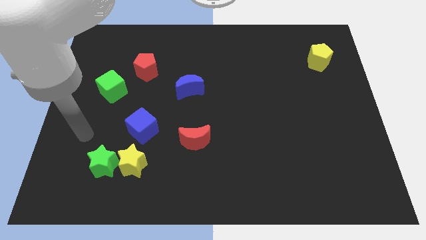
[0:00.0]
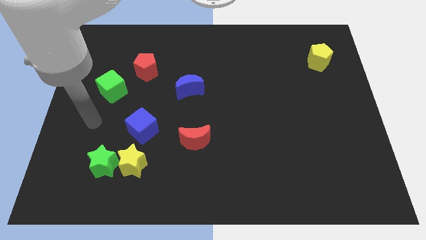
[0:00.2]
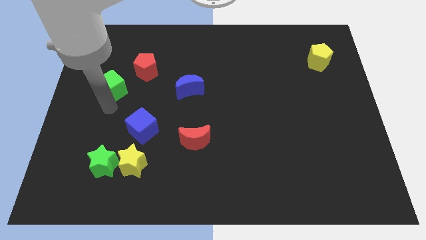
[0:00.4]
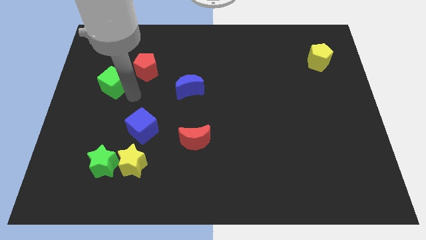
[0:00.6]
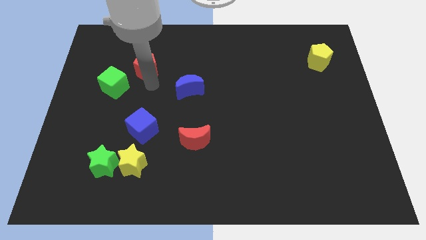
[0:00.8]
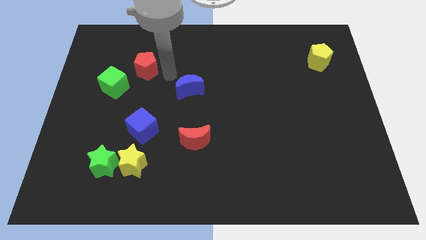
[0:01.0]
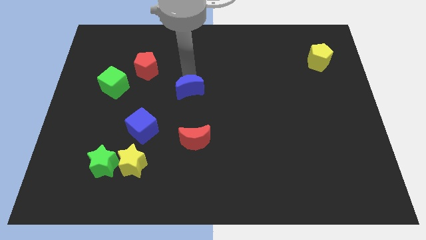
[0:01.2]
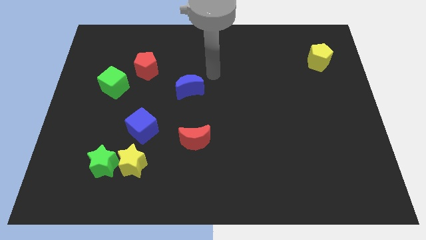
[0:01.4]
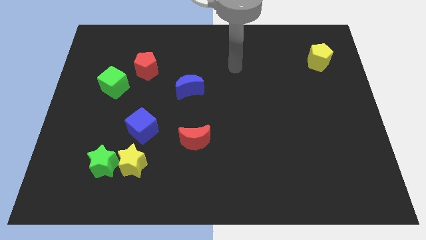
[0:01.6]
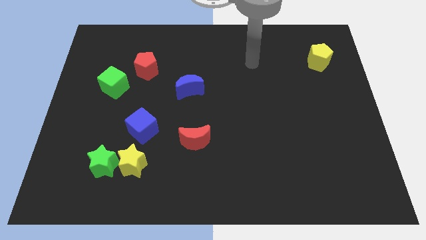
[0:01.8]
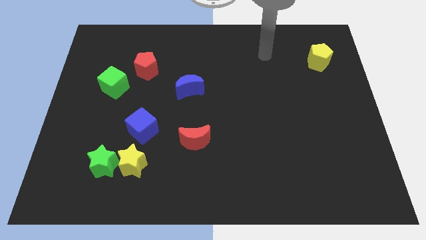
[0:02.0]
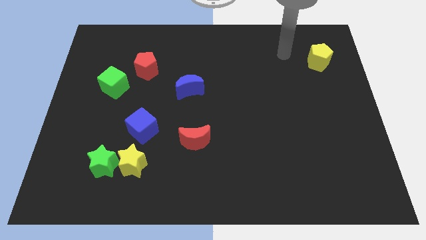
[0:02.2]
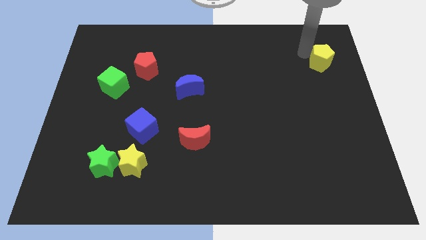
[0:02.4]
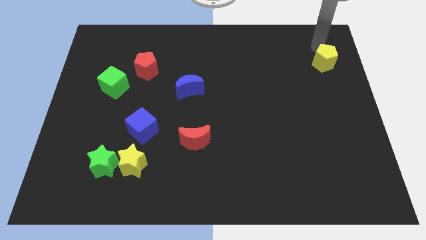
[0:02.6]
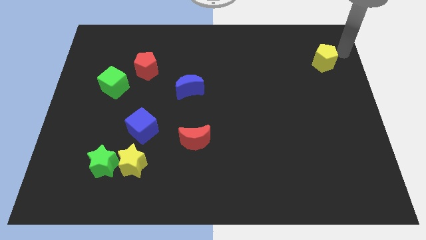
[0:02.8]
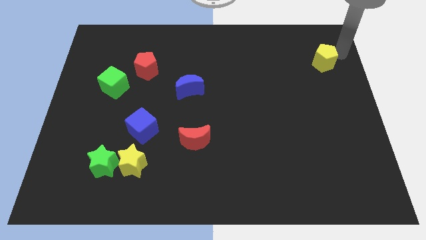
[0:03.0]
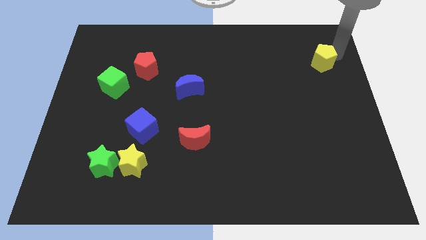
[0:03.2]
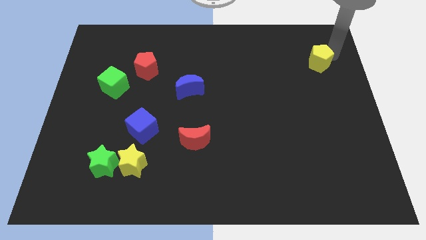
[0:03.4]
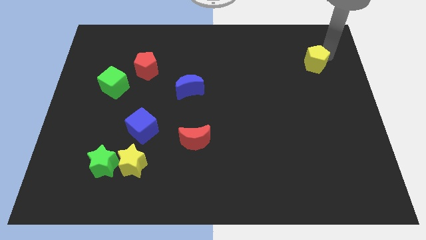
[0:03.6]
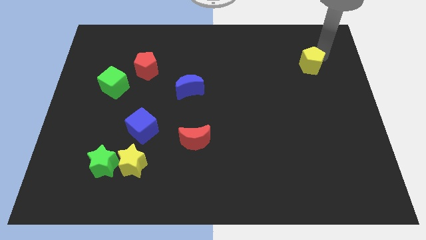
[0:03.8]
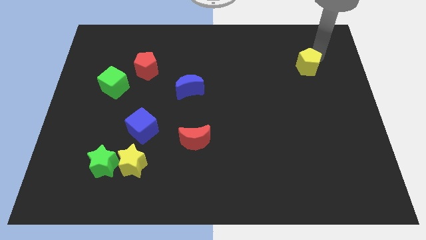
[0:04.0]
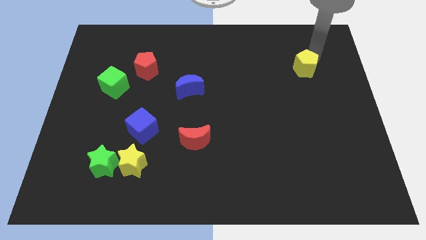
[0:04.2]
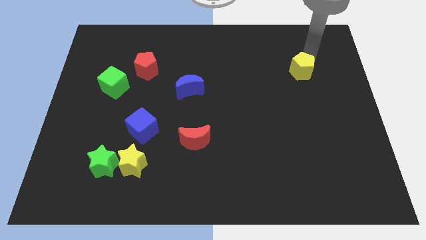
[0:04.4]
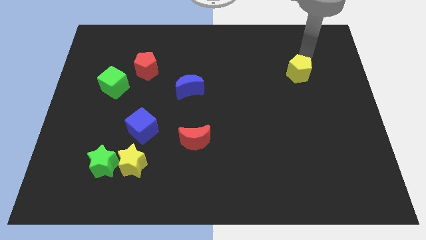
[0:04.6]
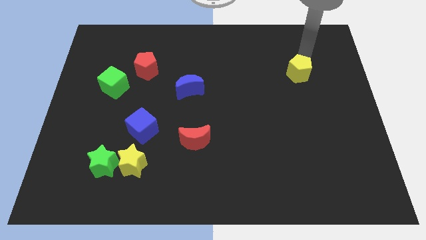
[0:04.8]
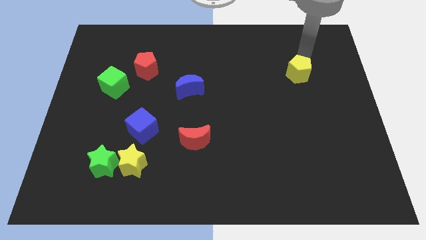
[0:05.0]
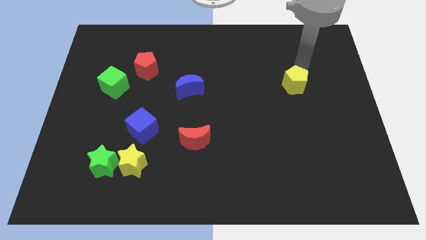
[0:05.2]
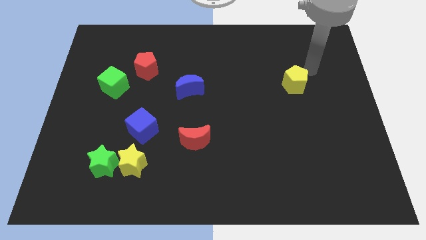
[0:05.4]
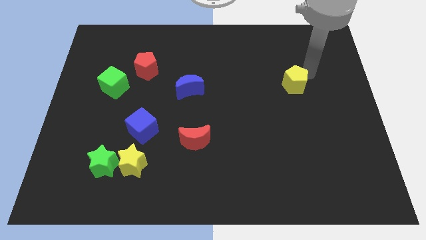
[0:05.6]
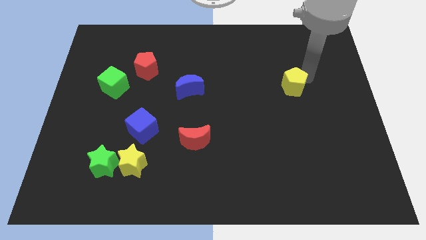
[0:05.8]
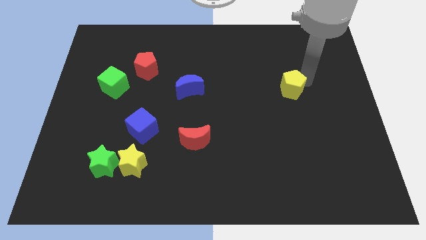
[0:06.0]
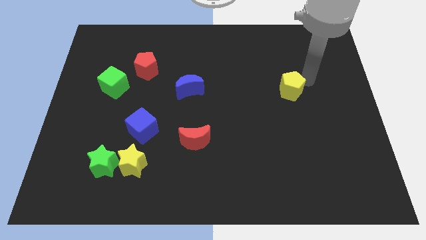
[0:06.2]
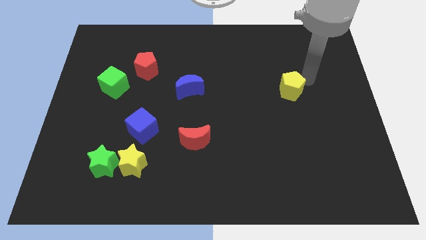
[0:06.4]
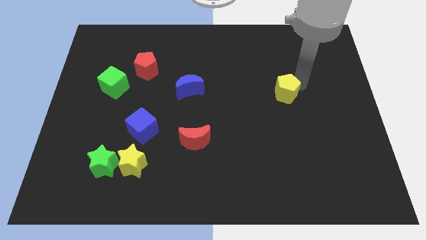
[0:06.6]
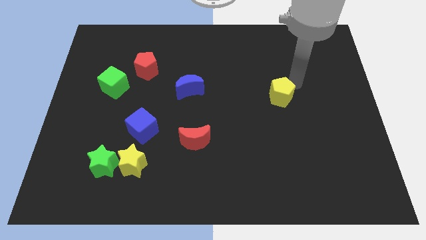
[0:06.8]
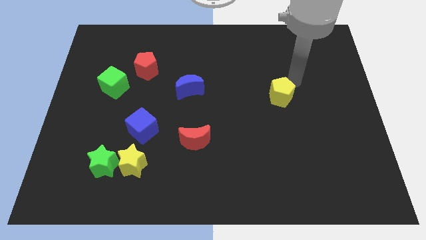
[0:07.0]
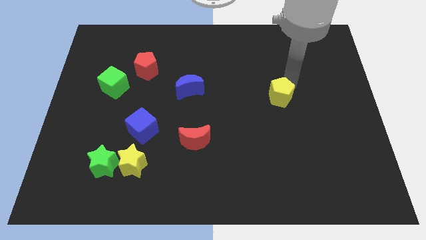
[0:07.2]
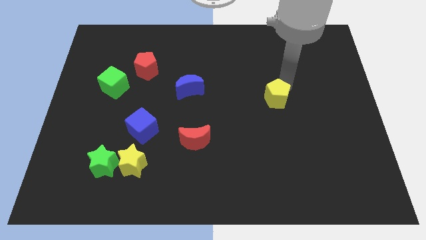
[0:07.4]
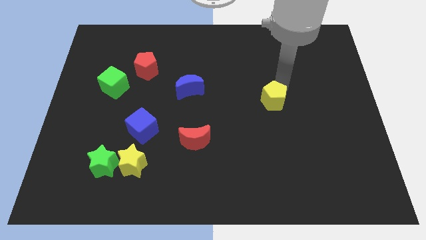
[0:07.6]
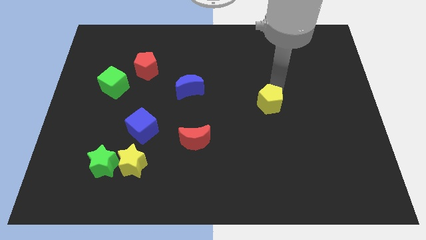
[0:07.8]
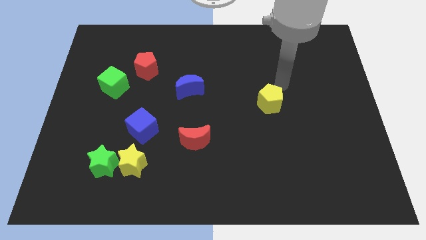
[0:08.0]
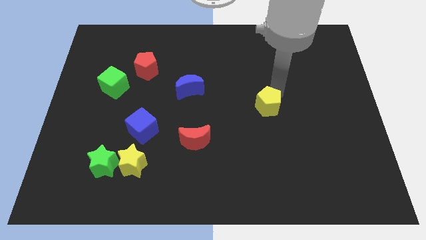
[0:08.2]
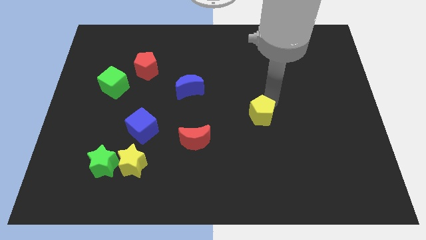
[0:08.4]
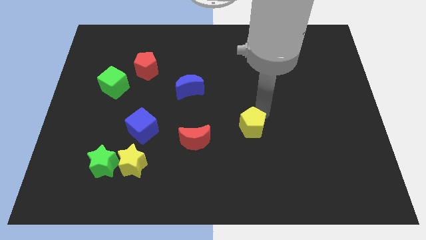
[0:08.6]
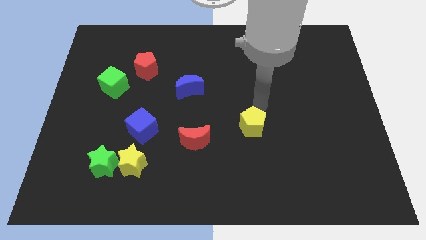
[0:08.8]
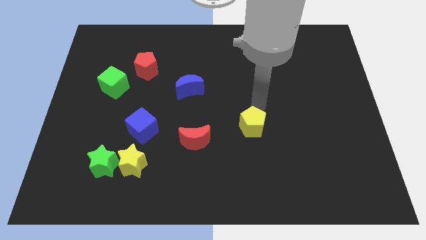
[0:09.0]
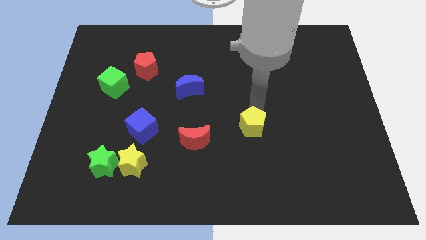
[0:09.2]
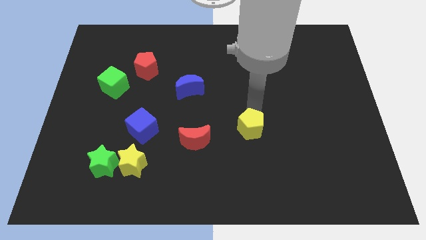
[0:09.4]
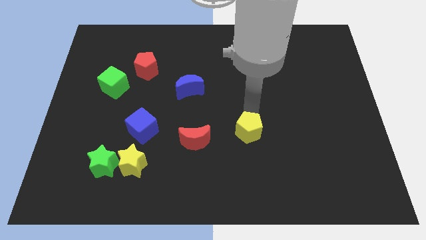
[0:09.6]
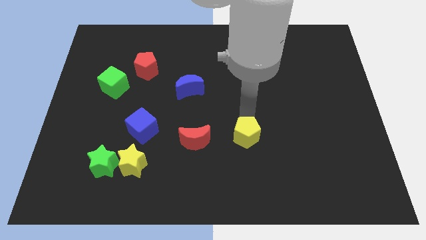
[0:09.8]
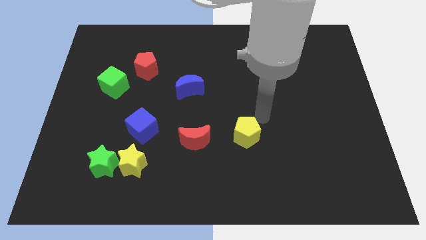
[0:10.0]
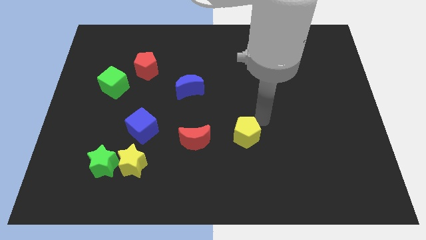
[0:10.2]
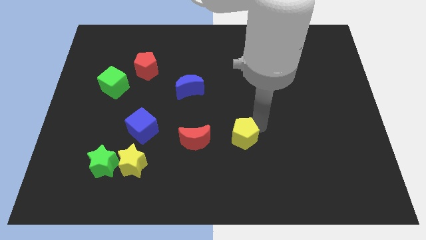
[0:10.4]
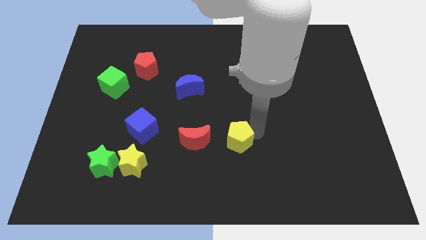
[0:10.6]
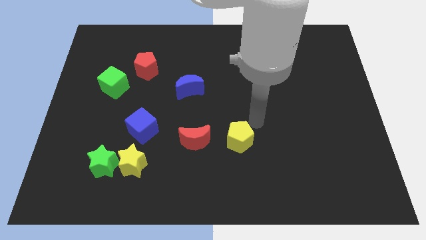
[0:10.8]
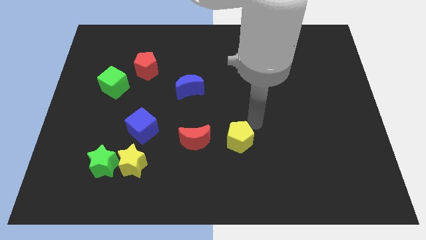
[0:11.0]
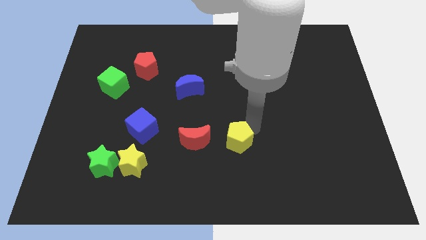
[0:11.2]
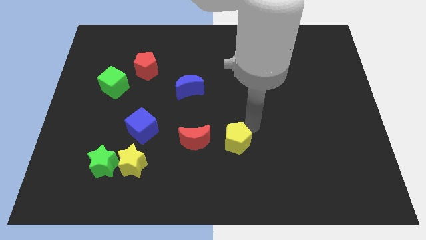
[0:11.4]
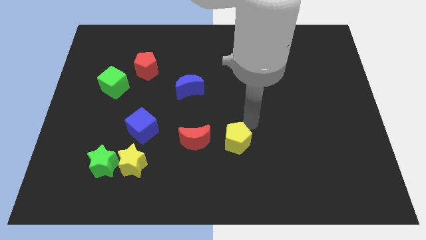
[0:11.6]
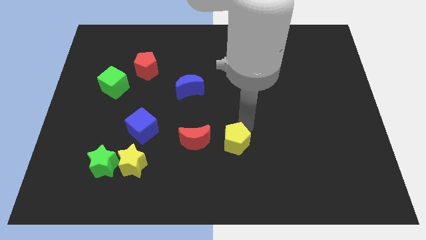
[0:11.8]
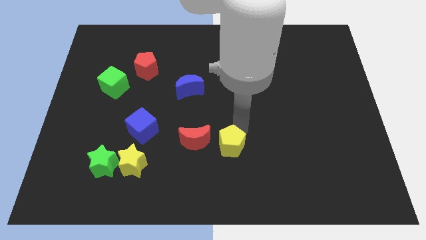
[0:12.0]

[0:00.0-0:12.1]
push the yellow pentagon diagonally down and to the right of the red moon

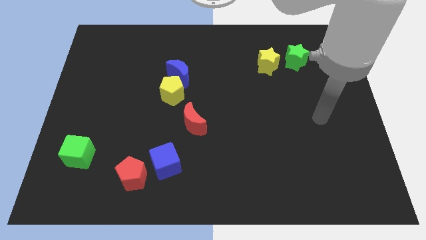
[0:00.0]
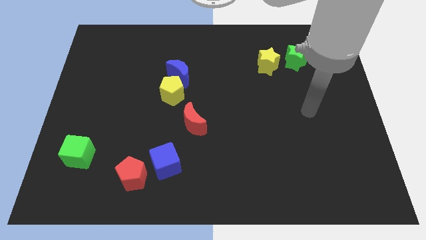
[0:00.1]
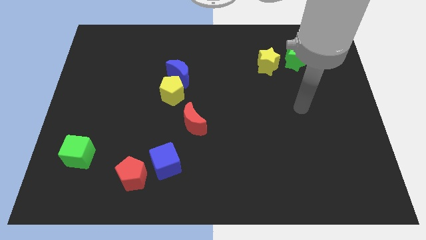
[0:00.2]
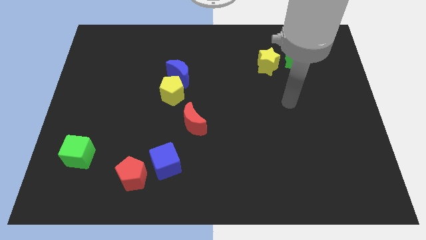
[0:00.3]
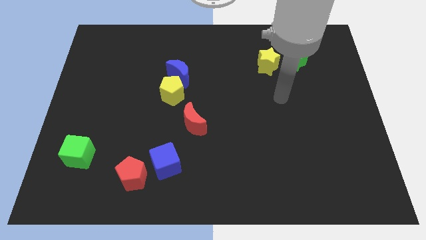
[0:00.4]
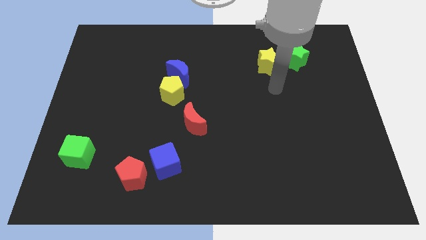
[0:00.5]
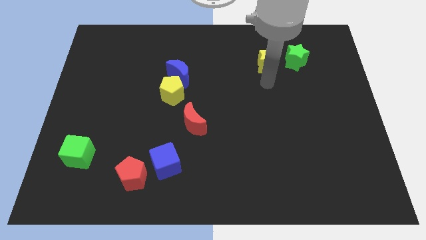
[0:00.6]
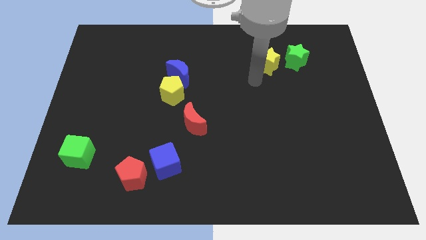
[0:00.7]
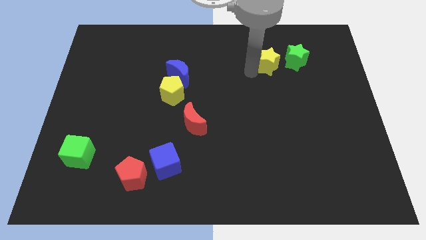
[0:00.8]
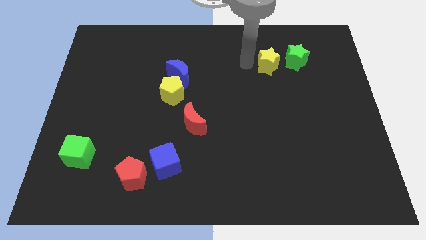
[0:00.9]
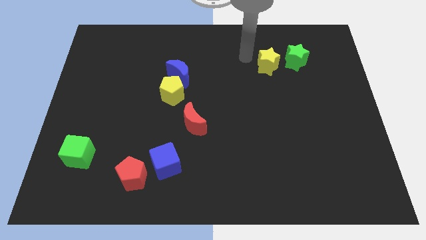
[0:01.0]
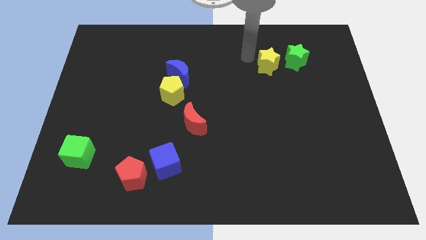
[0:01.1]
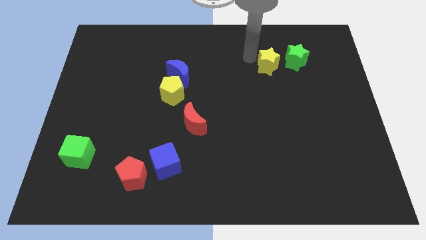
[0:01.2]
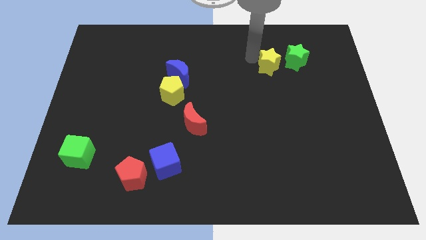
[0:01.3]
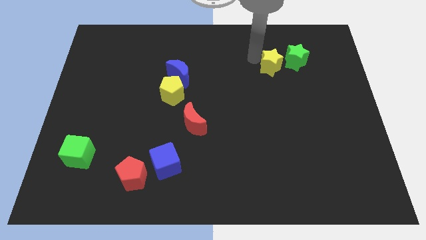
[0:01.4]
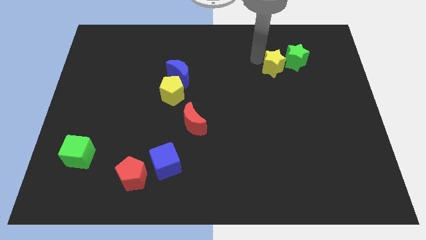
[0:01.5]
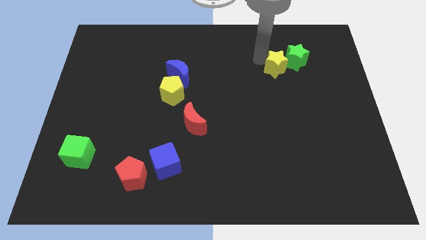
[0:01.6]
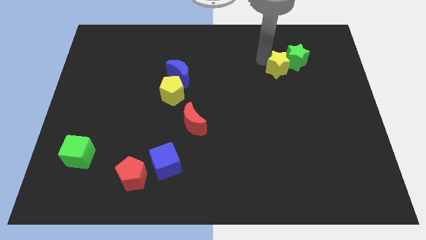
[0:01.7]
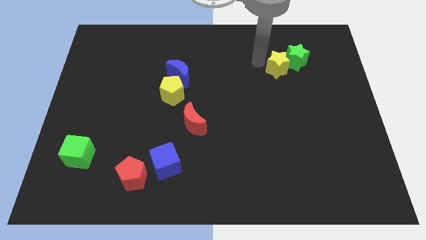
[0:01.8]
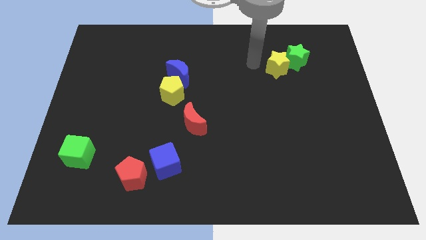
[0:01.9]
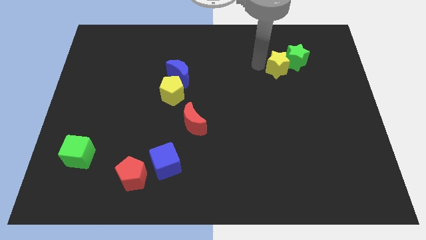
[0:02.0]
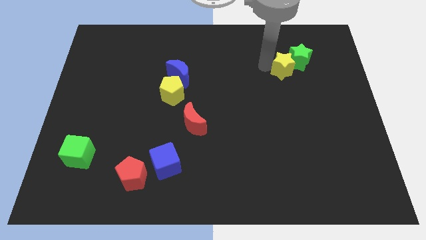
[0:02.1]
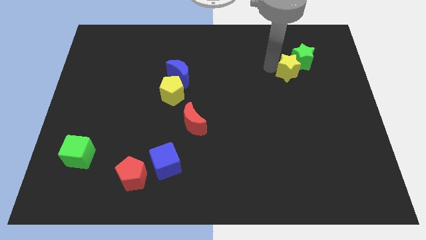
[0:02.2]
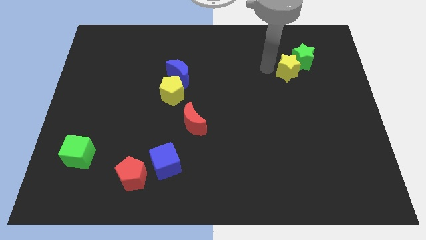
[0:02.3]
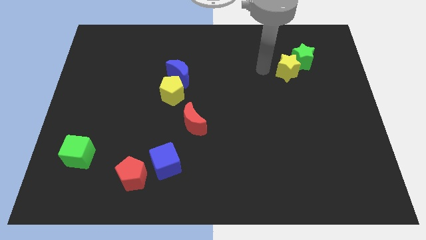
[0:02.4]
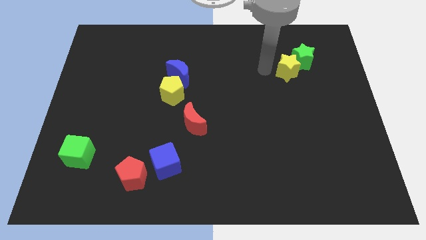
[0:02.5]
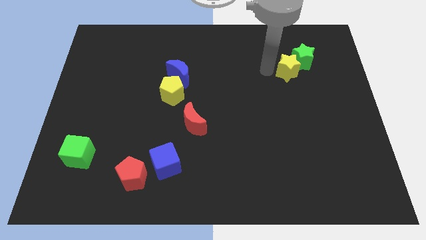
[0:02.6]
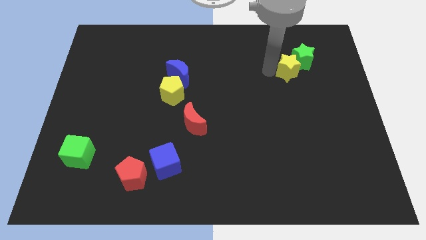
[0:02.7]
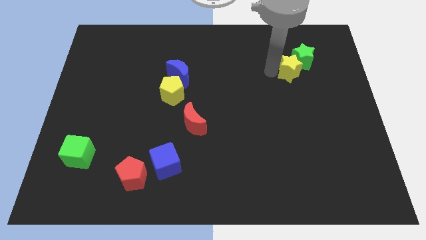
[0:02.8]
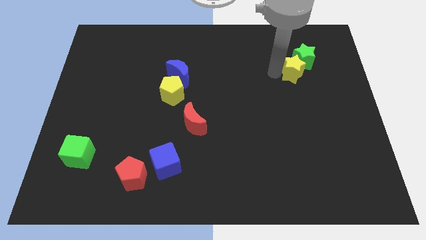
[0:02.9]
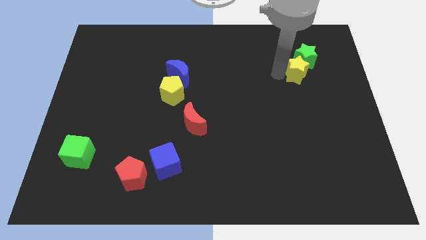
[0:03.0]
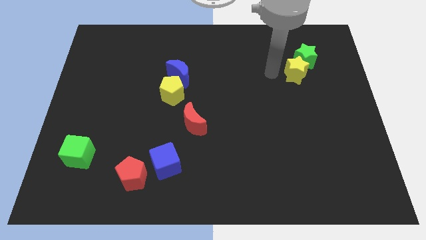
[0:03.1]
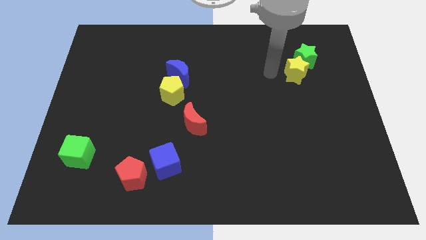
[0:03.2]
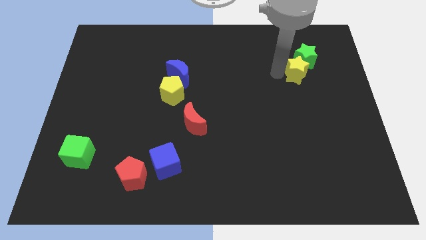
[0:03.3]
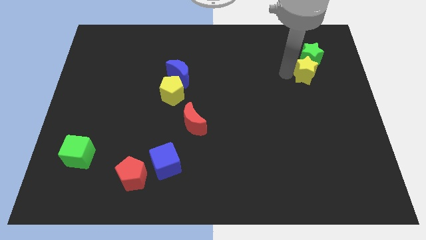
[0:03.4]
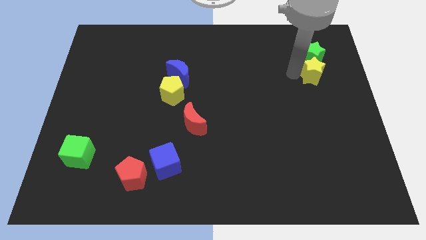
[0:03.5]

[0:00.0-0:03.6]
push the yellow star diagonally down and to the right of the green star
